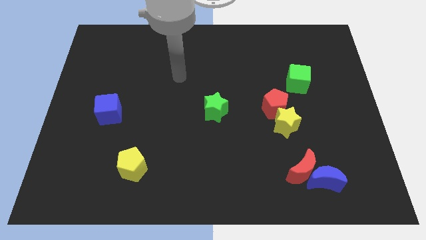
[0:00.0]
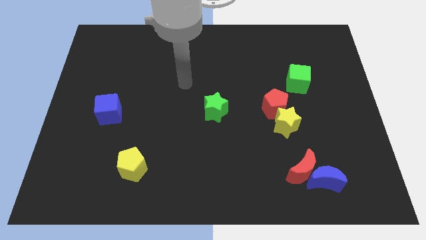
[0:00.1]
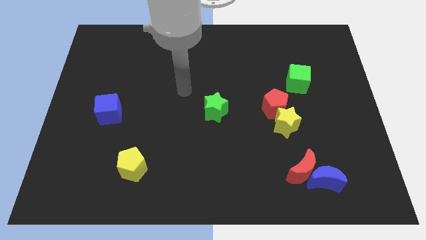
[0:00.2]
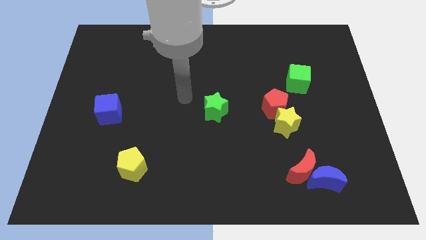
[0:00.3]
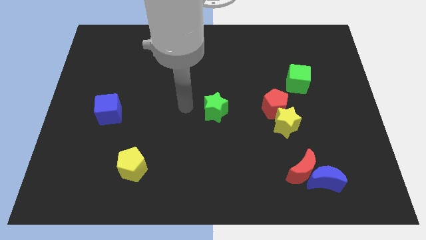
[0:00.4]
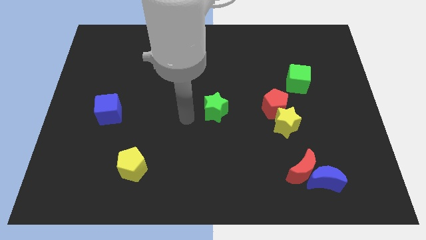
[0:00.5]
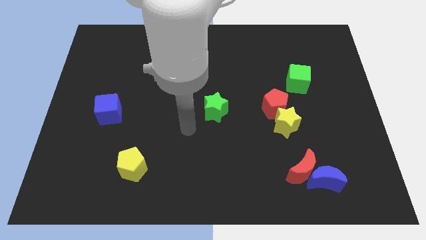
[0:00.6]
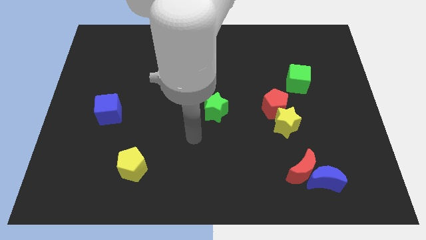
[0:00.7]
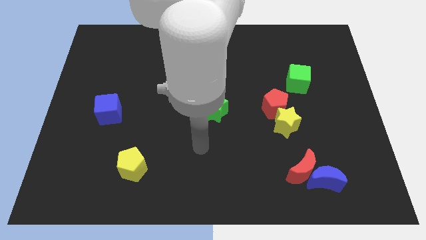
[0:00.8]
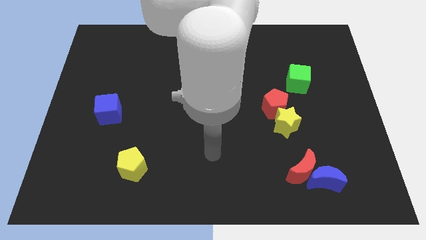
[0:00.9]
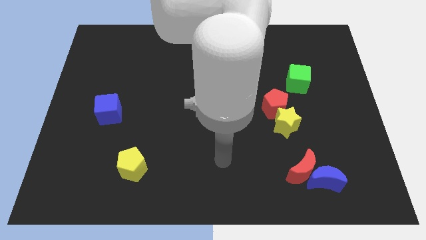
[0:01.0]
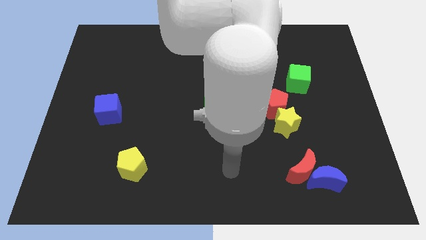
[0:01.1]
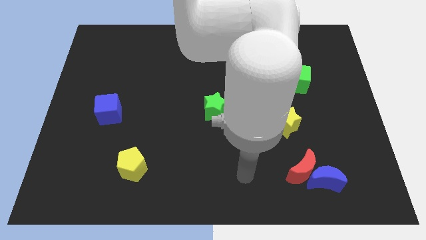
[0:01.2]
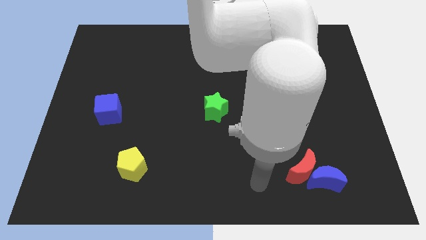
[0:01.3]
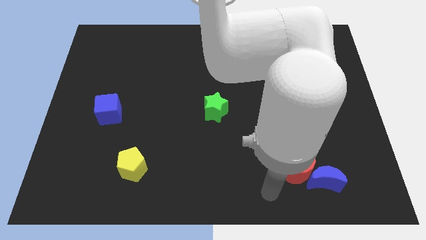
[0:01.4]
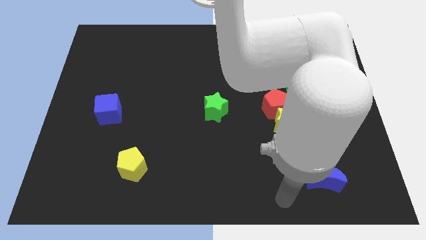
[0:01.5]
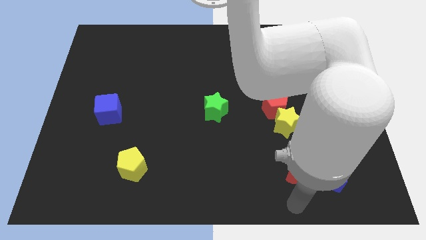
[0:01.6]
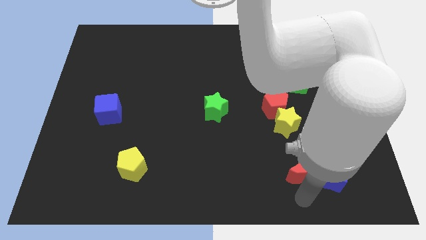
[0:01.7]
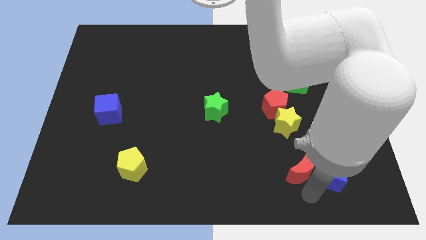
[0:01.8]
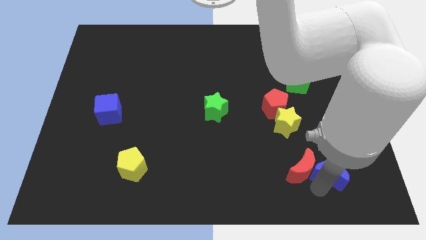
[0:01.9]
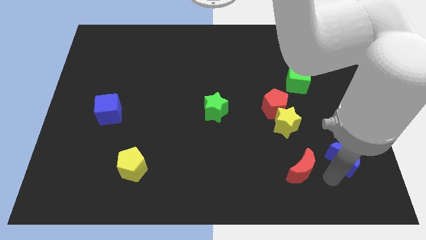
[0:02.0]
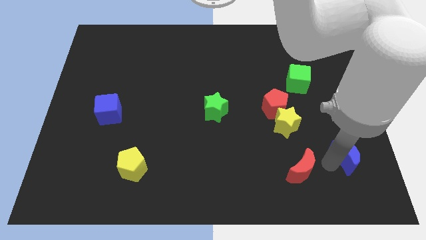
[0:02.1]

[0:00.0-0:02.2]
separate the red moon from the blue moon

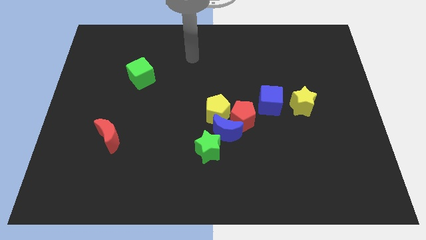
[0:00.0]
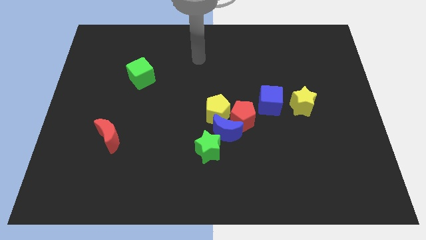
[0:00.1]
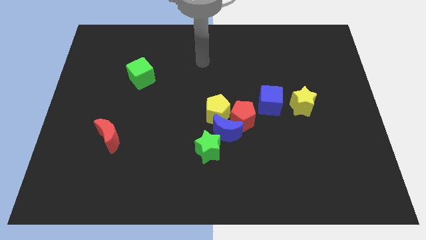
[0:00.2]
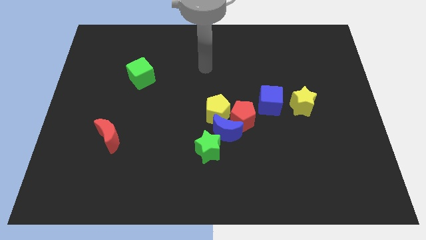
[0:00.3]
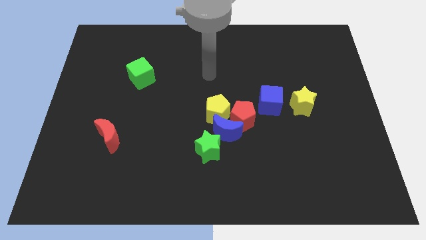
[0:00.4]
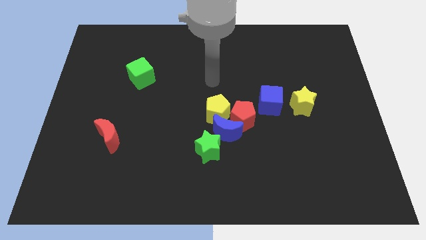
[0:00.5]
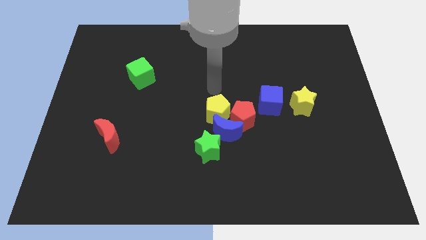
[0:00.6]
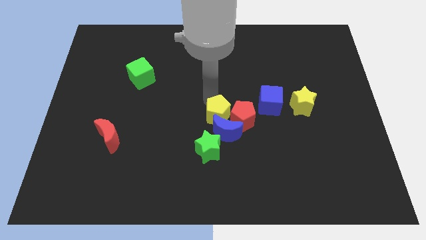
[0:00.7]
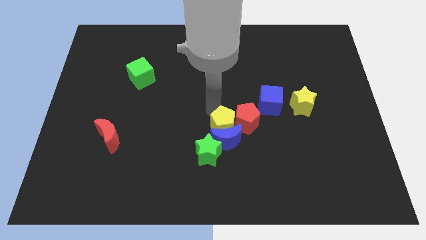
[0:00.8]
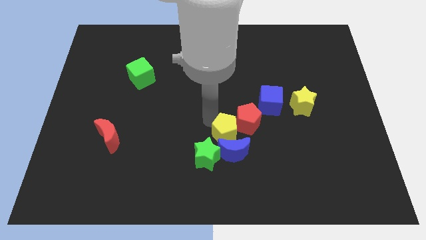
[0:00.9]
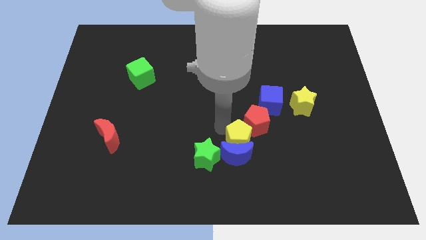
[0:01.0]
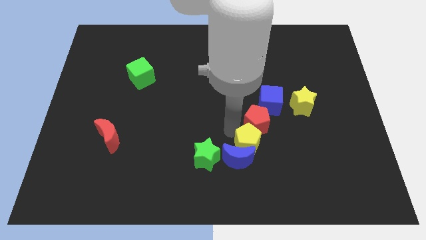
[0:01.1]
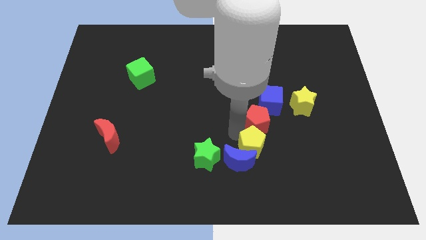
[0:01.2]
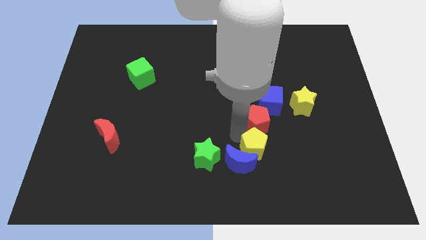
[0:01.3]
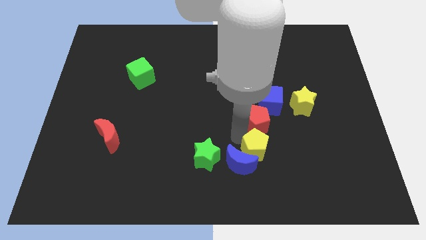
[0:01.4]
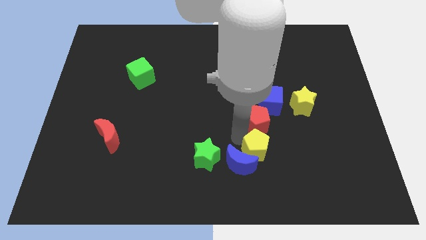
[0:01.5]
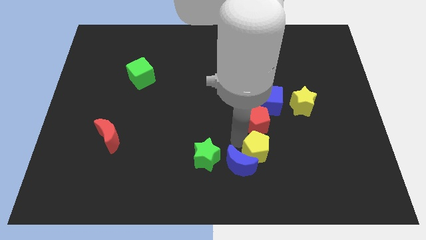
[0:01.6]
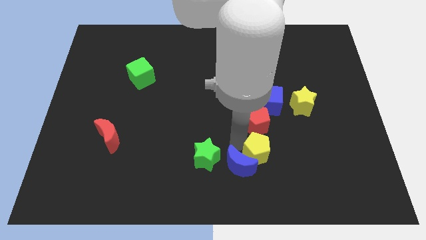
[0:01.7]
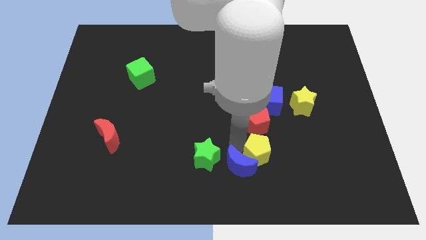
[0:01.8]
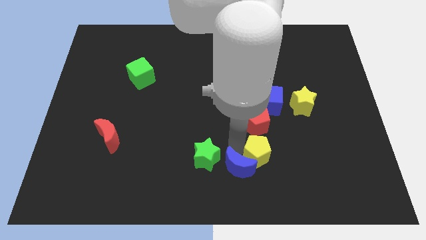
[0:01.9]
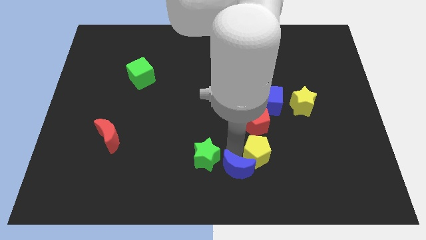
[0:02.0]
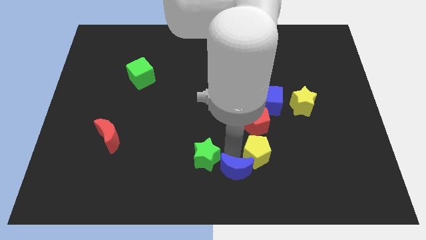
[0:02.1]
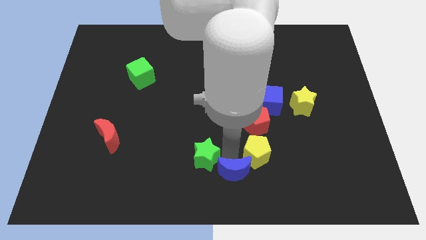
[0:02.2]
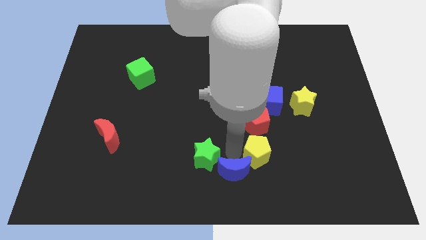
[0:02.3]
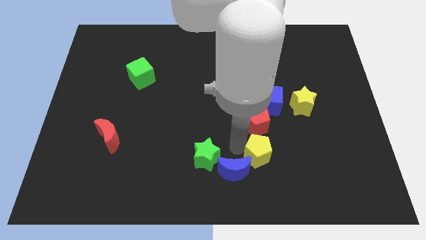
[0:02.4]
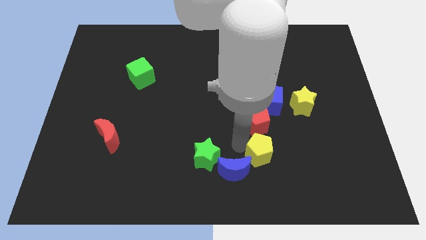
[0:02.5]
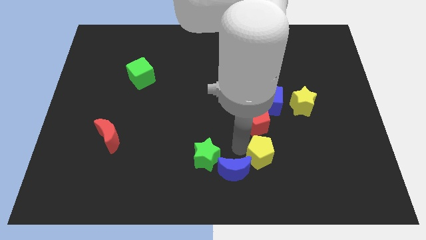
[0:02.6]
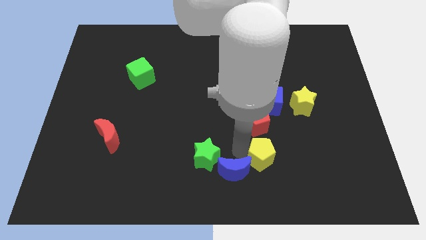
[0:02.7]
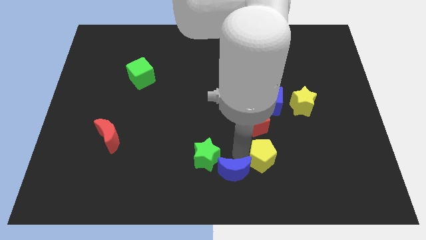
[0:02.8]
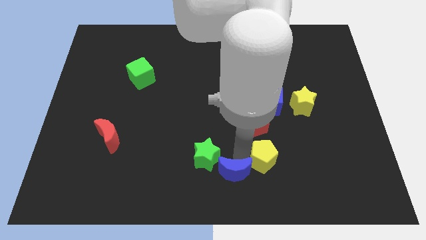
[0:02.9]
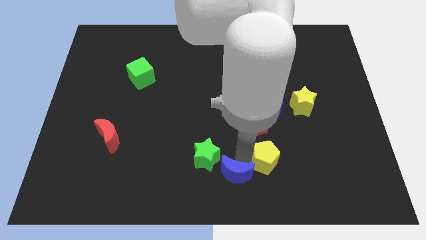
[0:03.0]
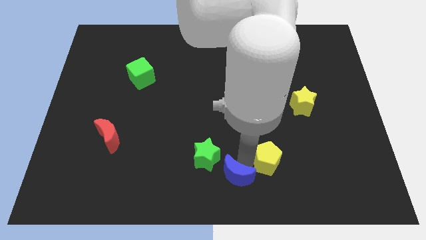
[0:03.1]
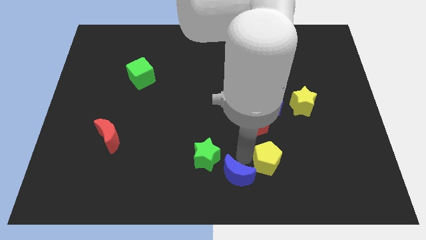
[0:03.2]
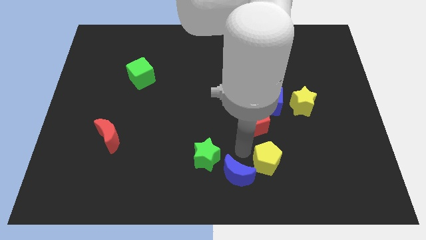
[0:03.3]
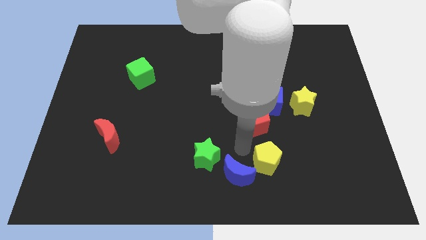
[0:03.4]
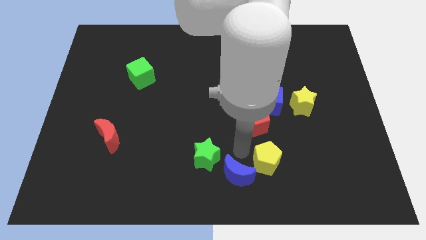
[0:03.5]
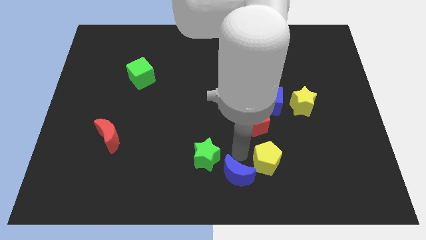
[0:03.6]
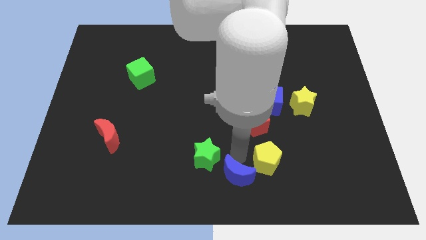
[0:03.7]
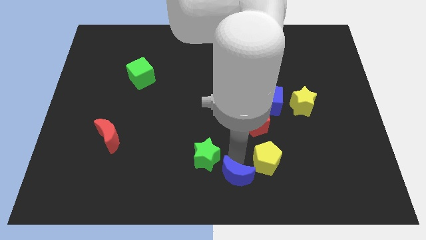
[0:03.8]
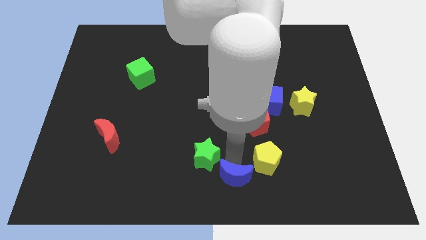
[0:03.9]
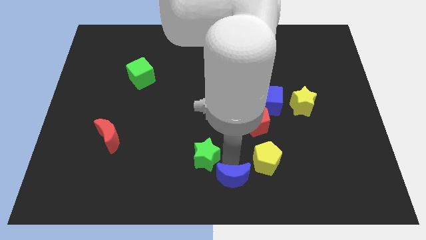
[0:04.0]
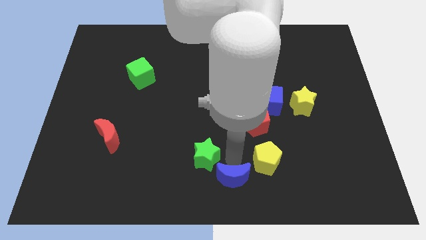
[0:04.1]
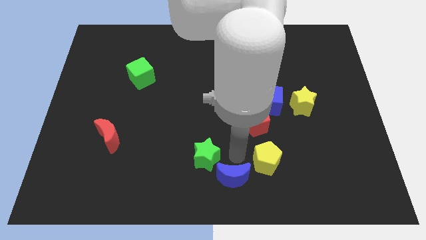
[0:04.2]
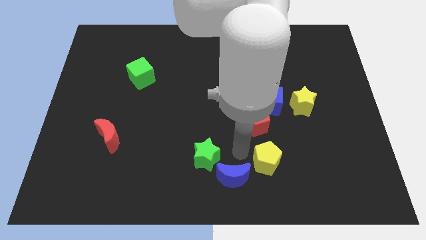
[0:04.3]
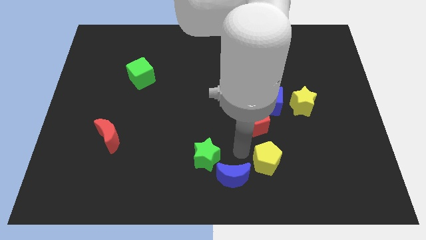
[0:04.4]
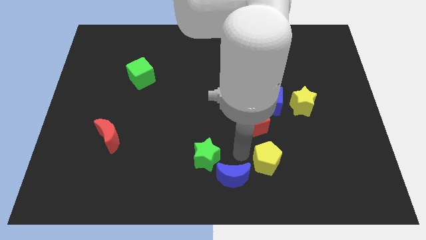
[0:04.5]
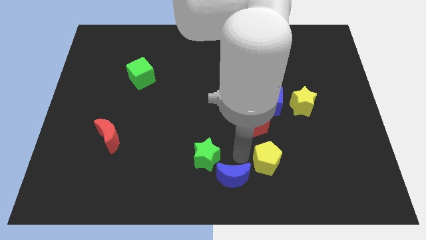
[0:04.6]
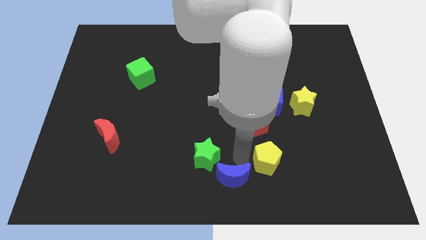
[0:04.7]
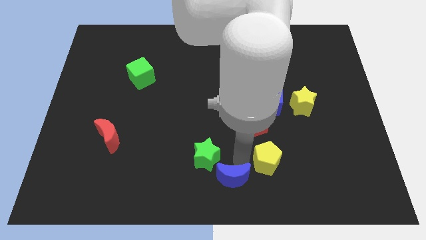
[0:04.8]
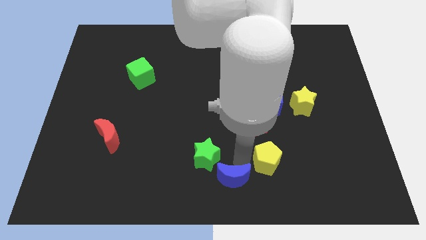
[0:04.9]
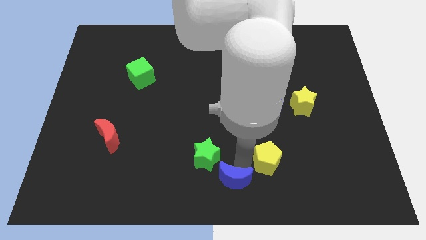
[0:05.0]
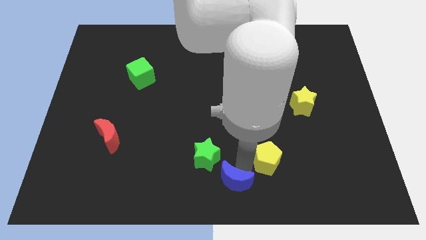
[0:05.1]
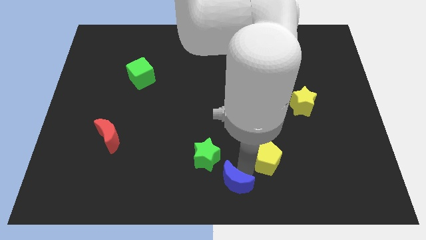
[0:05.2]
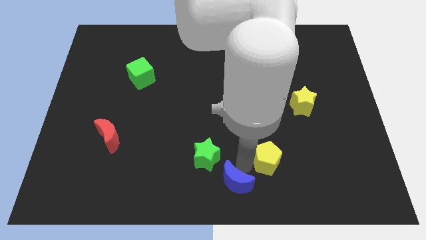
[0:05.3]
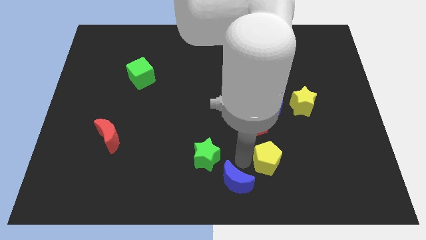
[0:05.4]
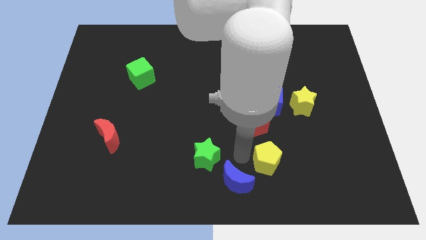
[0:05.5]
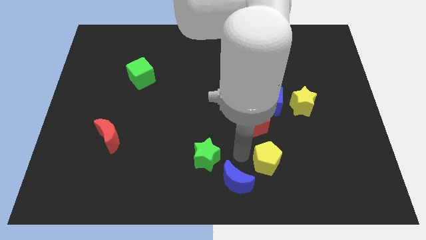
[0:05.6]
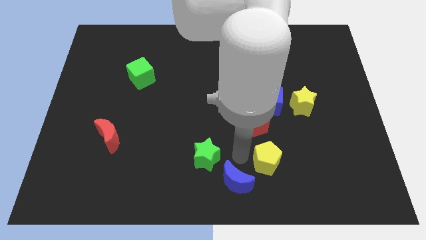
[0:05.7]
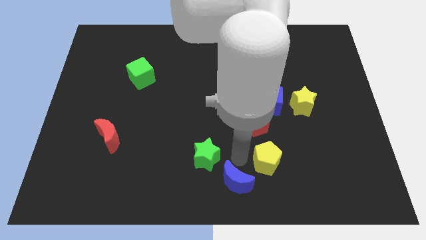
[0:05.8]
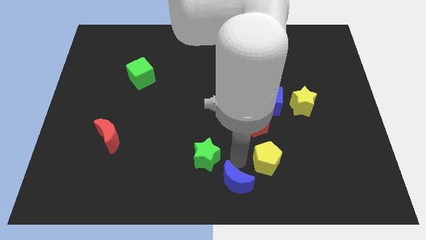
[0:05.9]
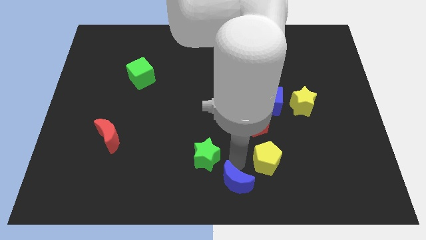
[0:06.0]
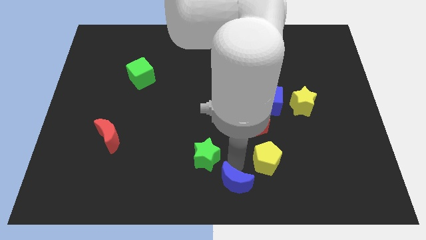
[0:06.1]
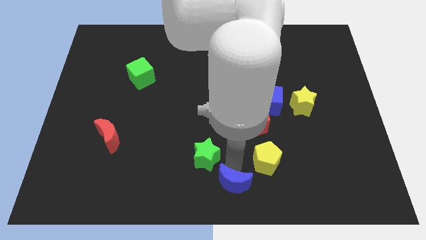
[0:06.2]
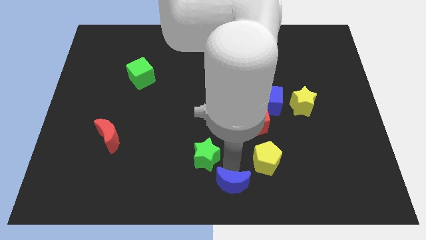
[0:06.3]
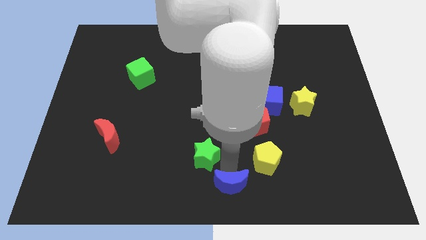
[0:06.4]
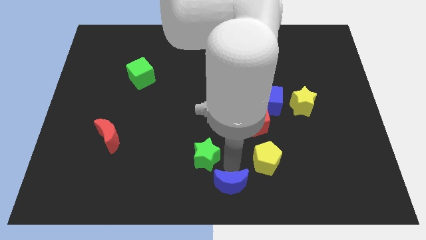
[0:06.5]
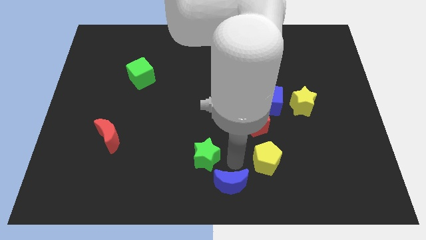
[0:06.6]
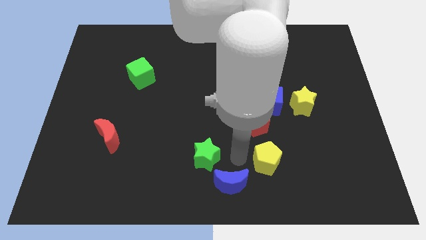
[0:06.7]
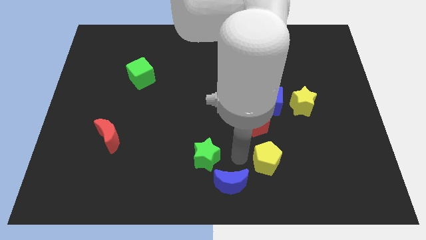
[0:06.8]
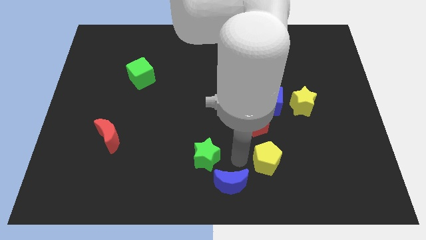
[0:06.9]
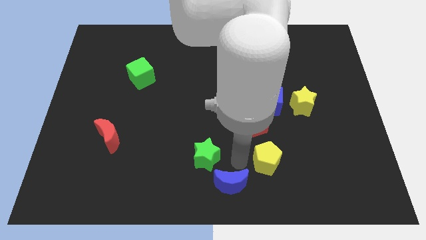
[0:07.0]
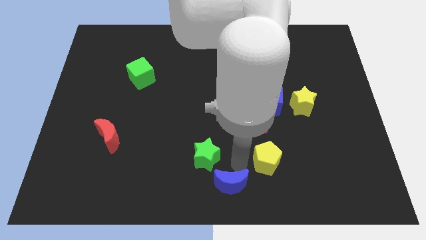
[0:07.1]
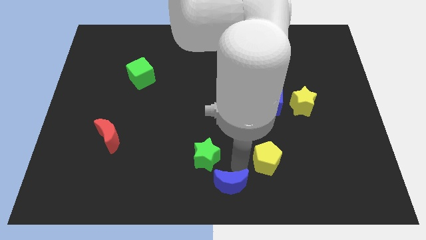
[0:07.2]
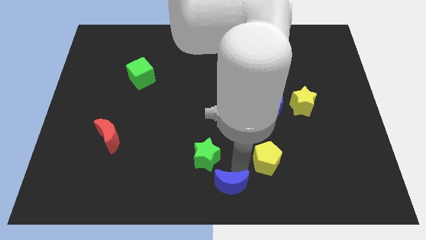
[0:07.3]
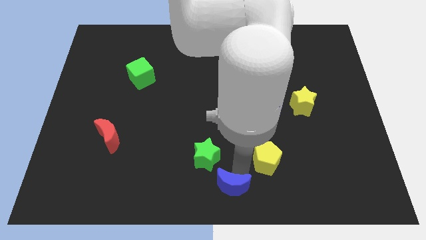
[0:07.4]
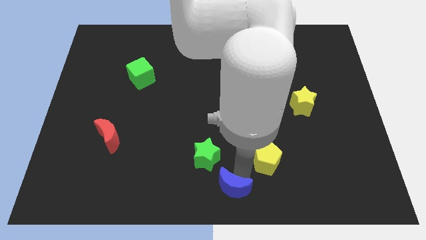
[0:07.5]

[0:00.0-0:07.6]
separate the blue moon from the red pentagon, yellow pentagon, and green star
